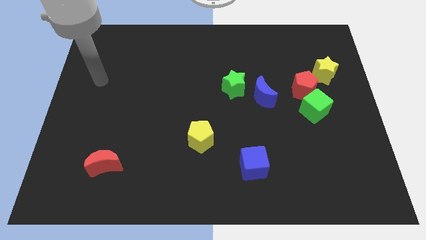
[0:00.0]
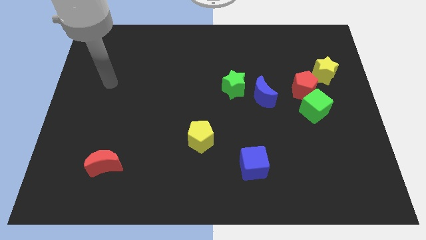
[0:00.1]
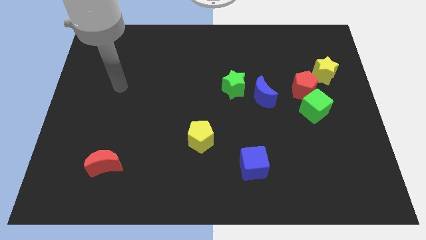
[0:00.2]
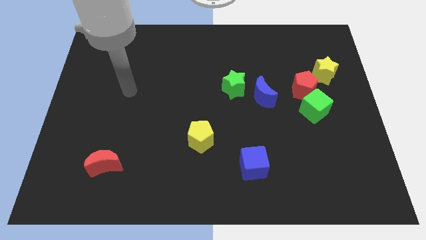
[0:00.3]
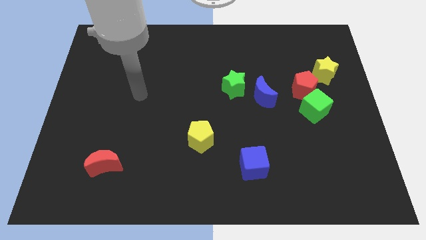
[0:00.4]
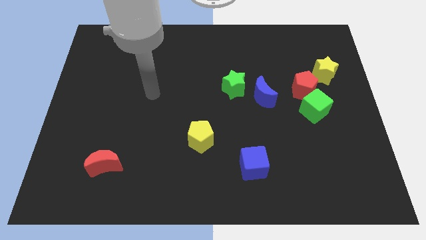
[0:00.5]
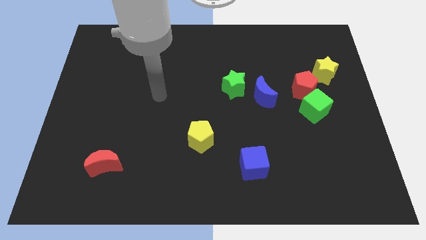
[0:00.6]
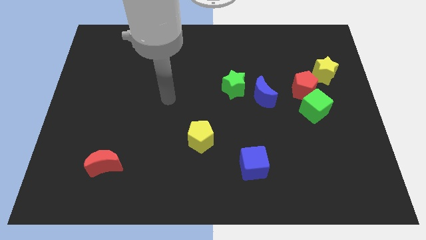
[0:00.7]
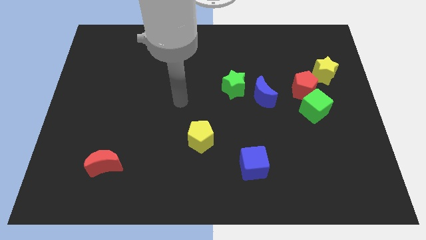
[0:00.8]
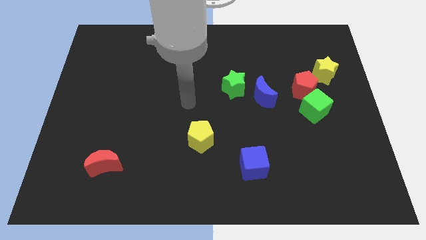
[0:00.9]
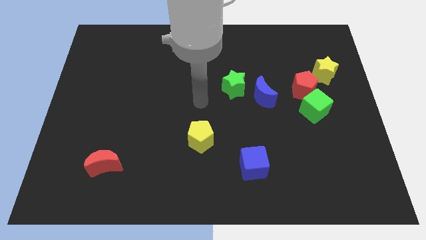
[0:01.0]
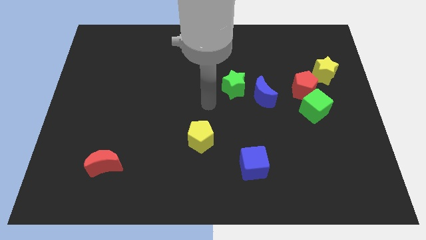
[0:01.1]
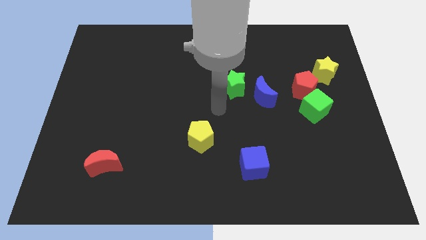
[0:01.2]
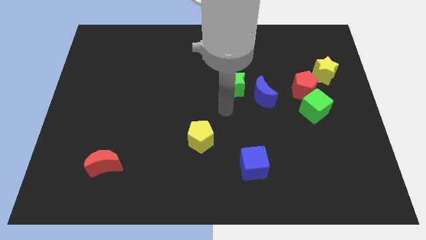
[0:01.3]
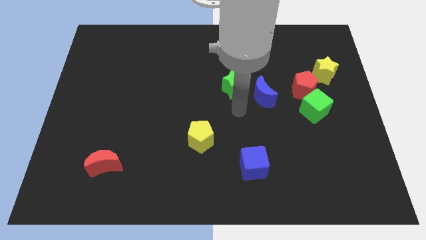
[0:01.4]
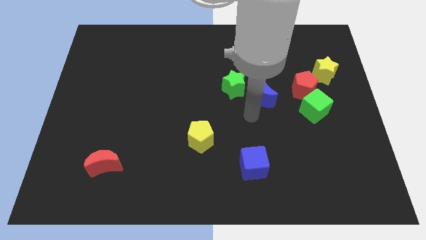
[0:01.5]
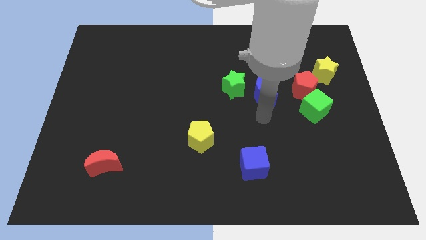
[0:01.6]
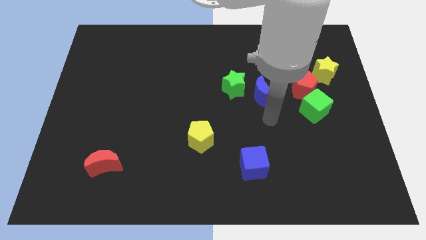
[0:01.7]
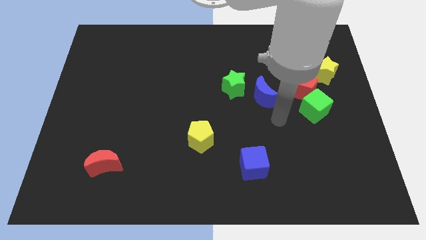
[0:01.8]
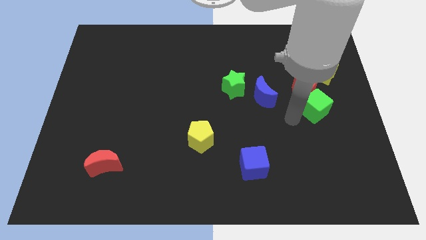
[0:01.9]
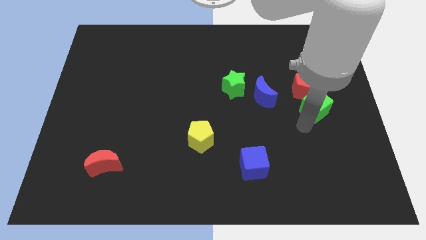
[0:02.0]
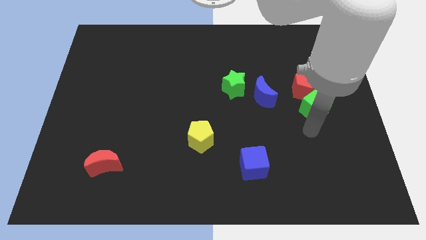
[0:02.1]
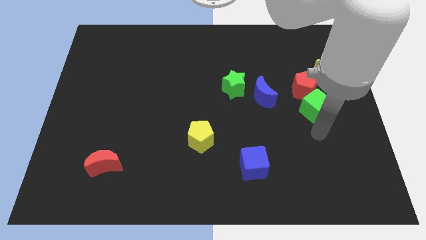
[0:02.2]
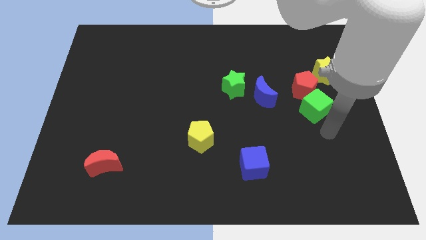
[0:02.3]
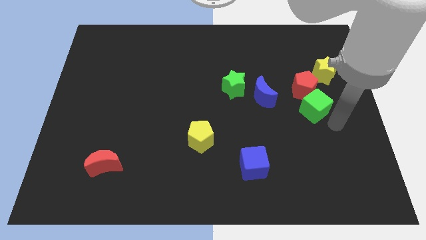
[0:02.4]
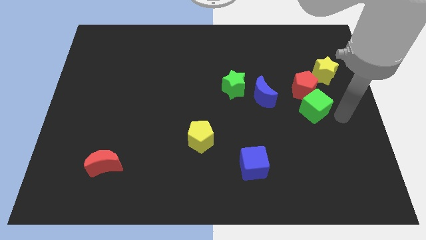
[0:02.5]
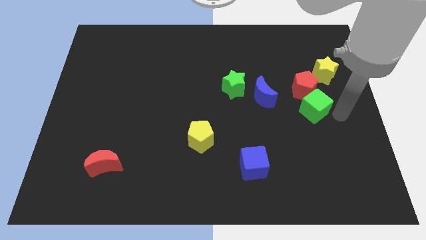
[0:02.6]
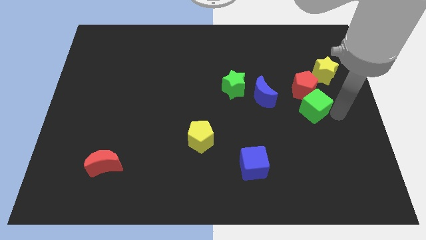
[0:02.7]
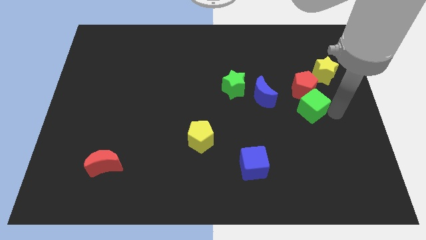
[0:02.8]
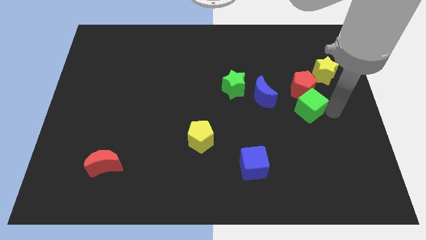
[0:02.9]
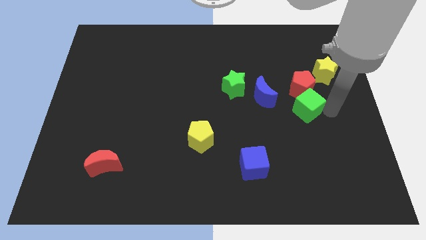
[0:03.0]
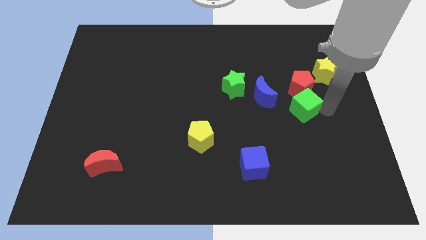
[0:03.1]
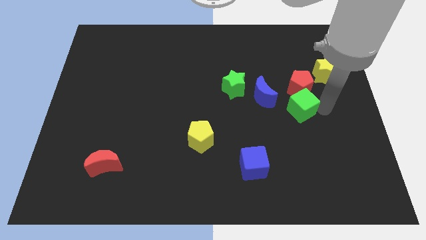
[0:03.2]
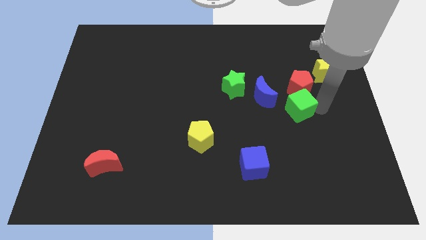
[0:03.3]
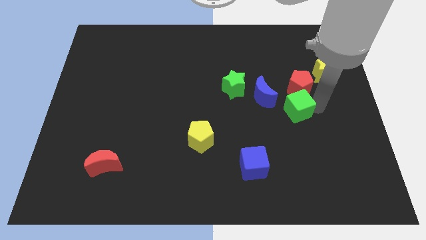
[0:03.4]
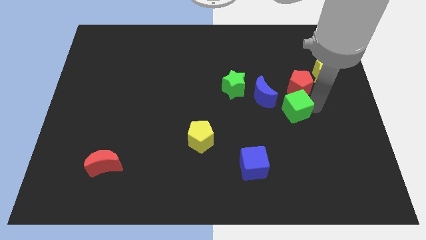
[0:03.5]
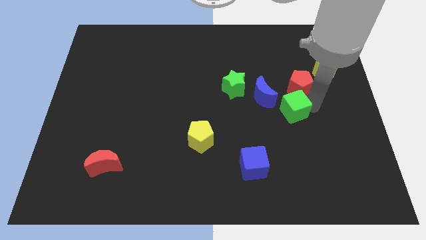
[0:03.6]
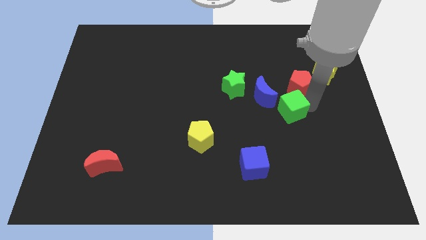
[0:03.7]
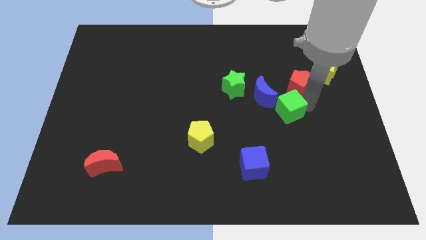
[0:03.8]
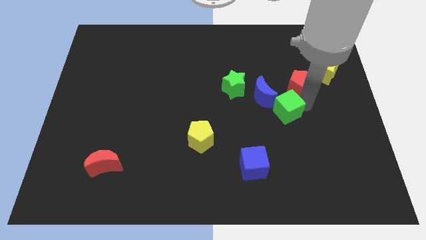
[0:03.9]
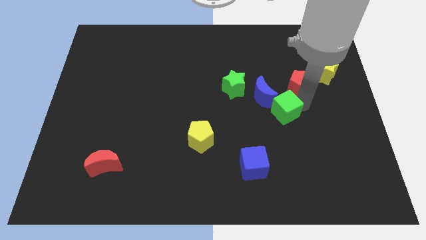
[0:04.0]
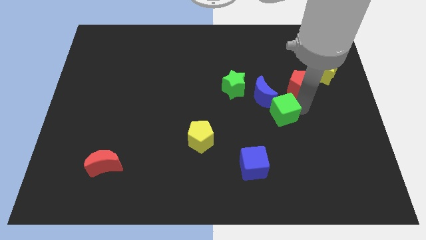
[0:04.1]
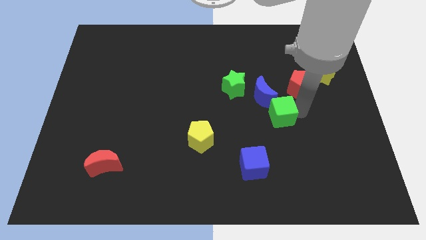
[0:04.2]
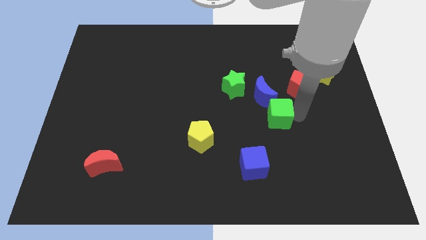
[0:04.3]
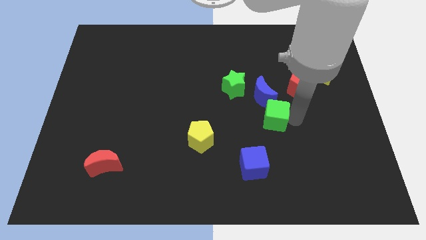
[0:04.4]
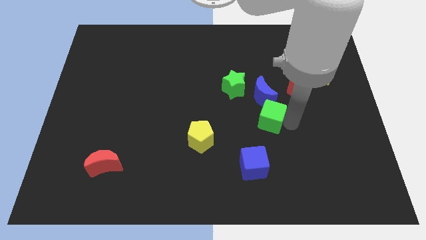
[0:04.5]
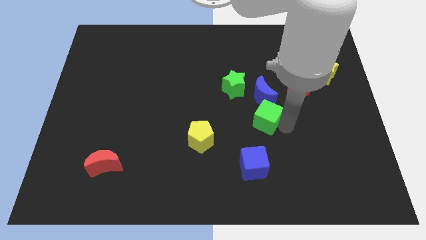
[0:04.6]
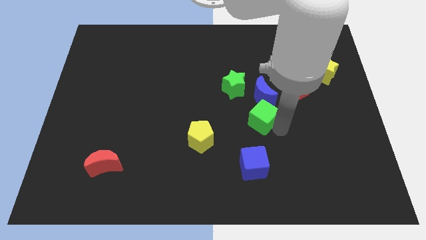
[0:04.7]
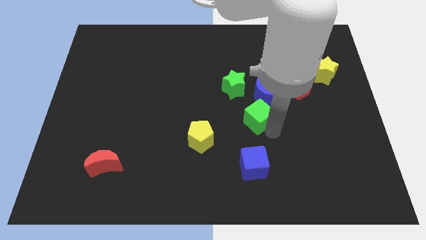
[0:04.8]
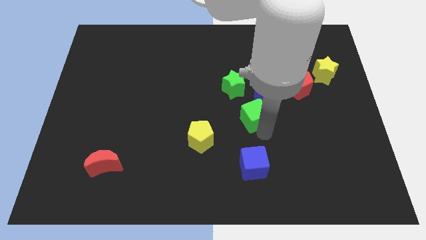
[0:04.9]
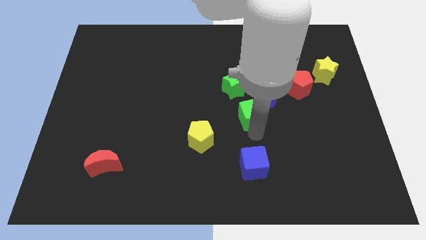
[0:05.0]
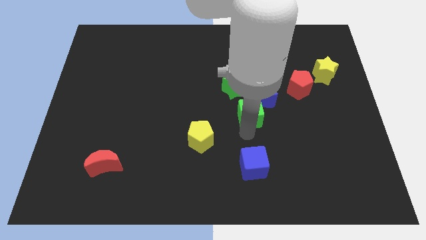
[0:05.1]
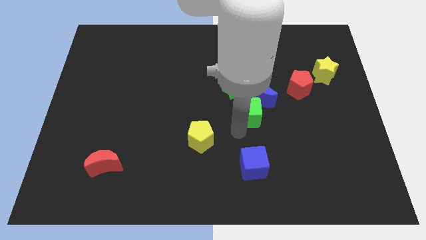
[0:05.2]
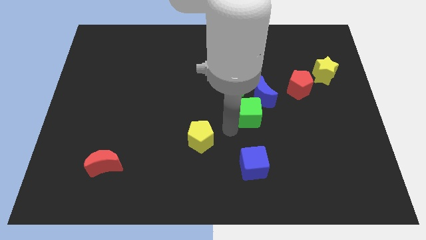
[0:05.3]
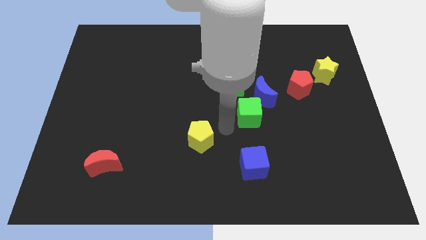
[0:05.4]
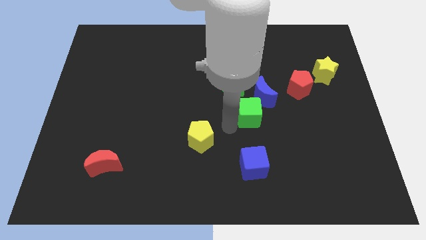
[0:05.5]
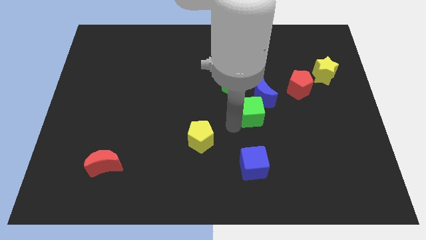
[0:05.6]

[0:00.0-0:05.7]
move the green cube close to the blue moon

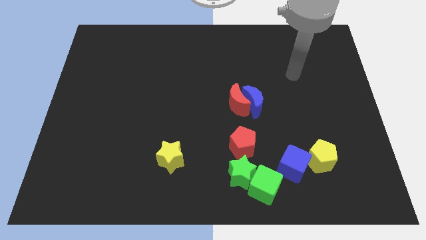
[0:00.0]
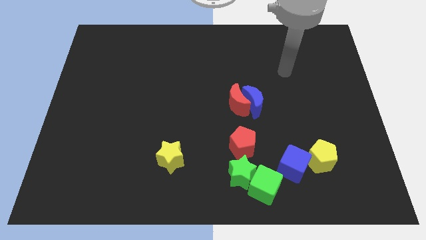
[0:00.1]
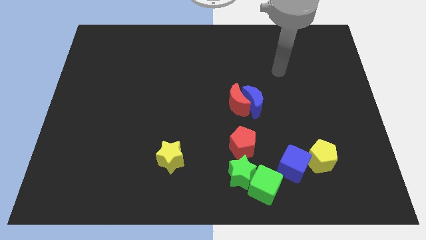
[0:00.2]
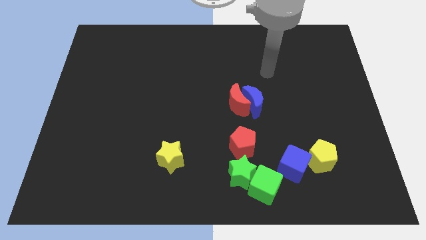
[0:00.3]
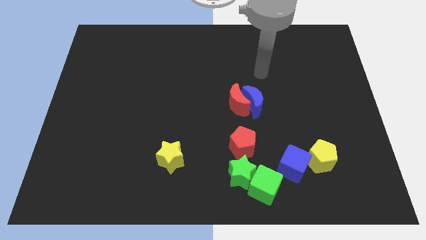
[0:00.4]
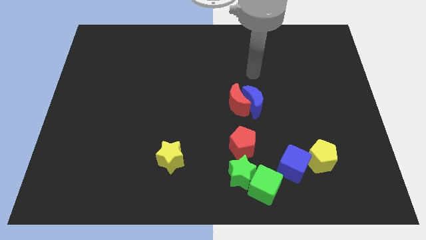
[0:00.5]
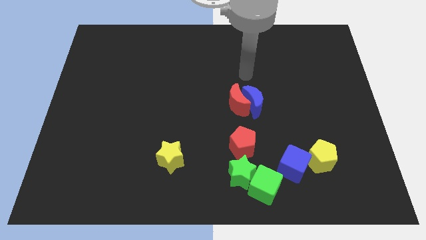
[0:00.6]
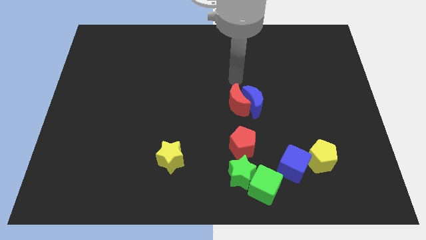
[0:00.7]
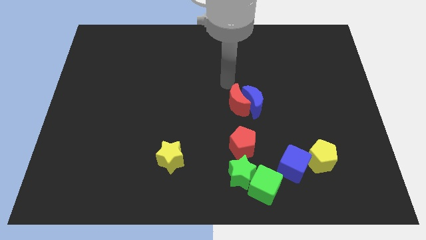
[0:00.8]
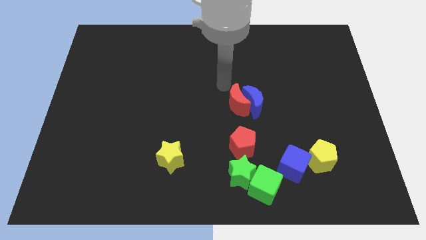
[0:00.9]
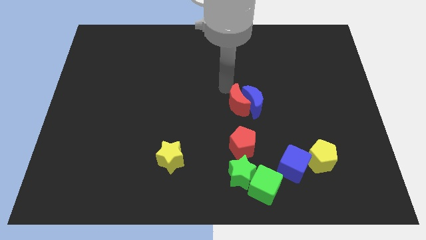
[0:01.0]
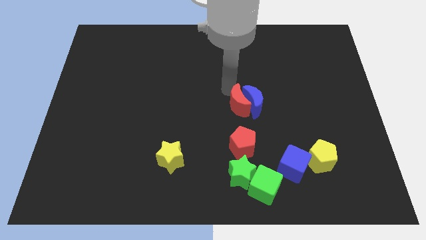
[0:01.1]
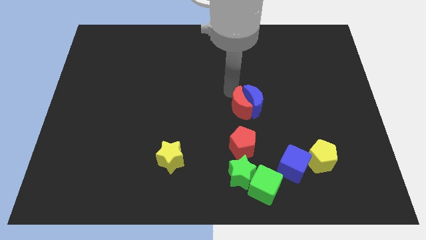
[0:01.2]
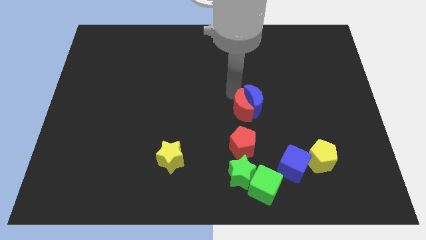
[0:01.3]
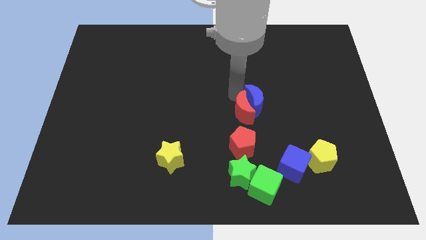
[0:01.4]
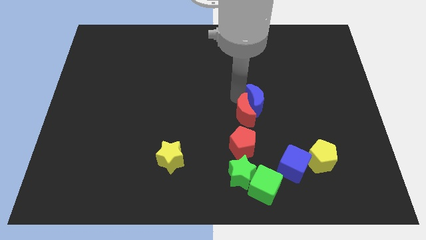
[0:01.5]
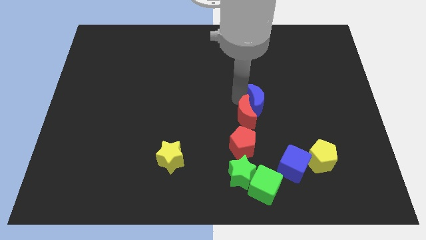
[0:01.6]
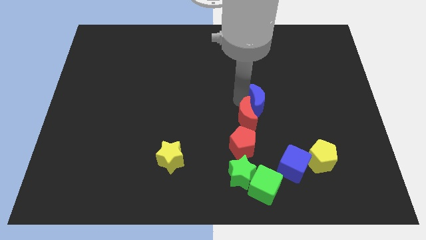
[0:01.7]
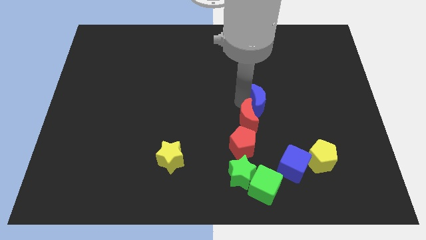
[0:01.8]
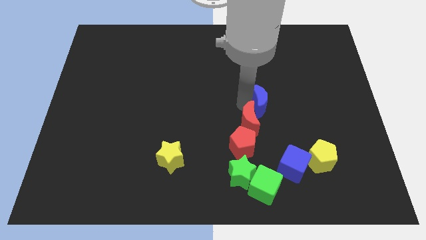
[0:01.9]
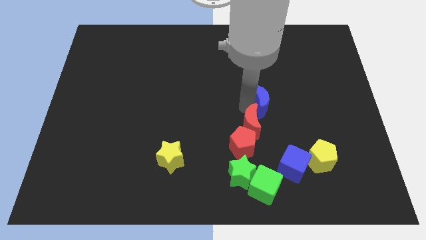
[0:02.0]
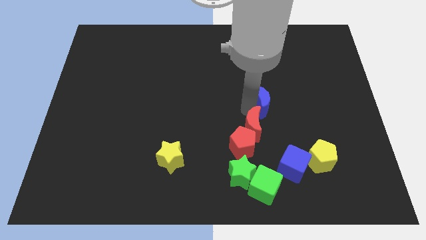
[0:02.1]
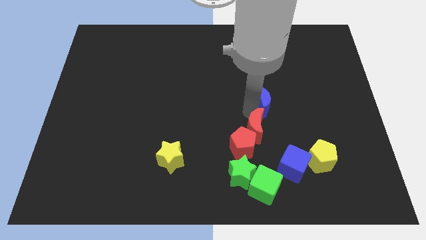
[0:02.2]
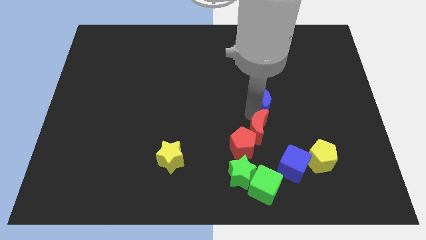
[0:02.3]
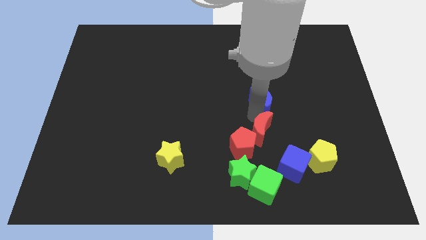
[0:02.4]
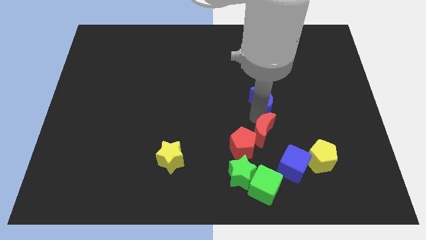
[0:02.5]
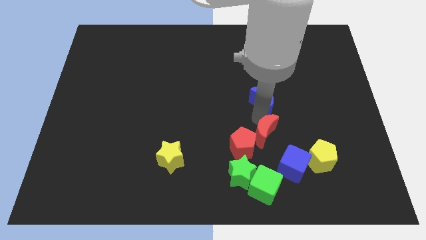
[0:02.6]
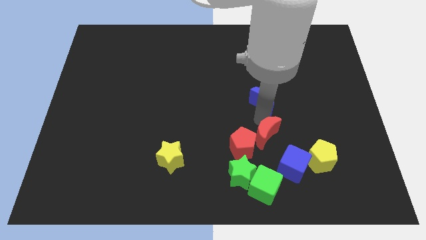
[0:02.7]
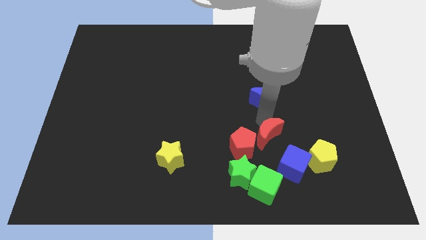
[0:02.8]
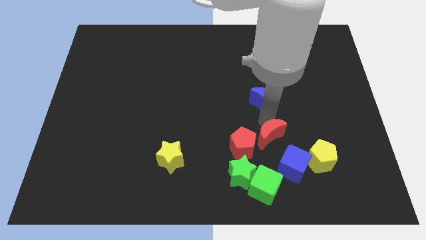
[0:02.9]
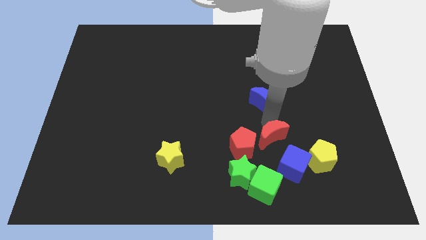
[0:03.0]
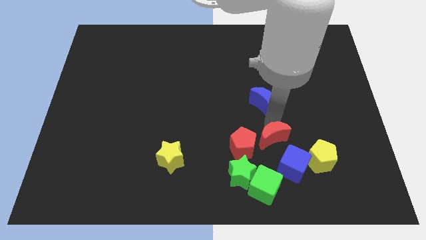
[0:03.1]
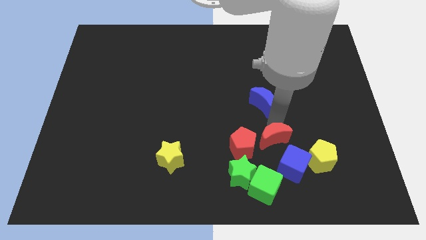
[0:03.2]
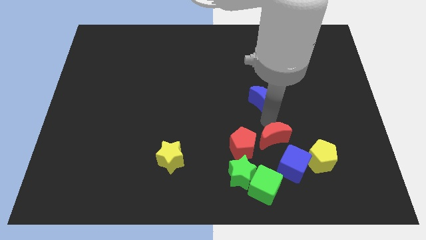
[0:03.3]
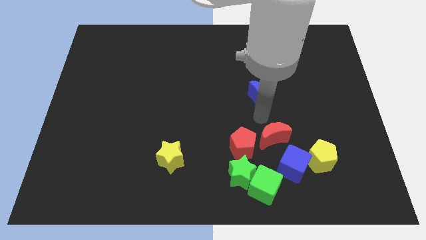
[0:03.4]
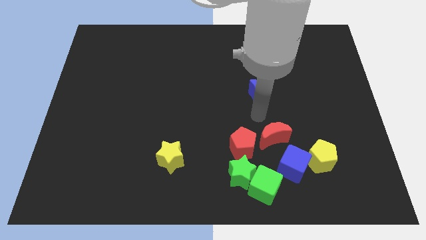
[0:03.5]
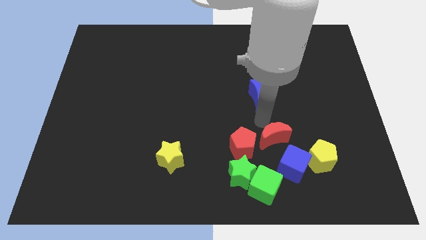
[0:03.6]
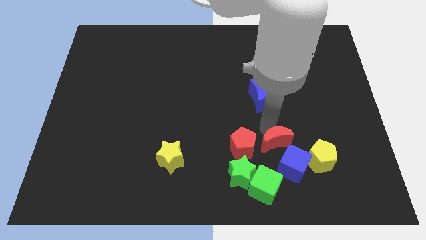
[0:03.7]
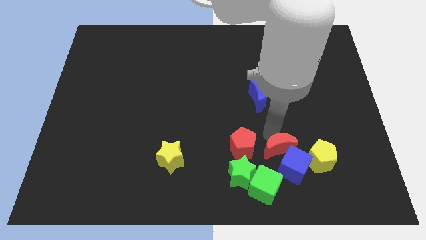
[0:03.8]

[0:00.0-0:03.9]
slide the red moon close to the blue cube
